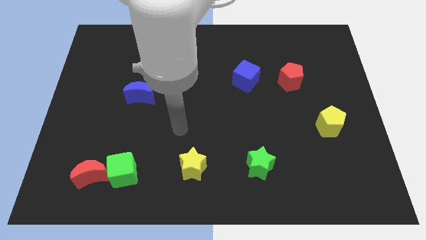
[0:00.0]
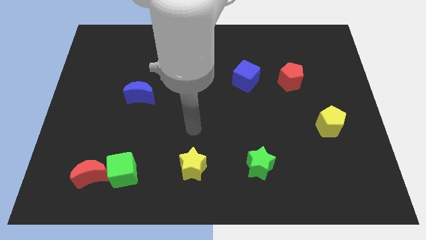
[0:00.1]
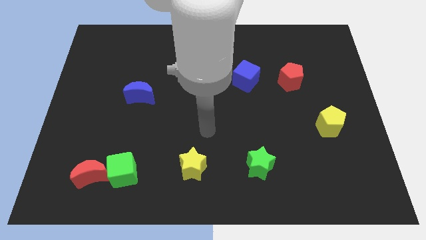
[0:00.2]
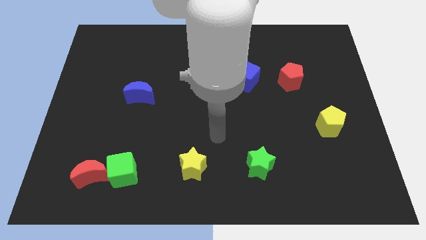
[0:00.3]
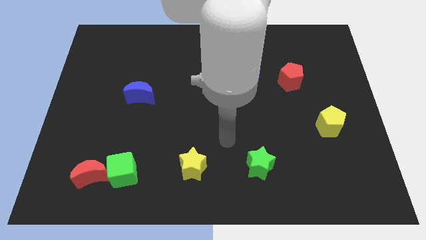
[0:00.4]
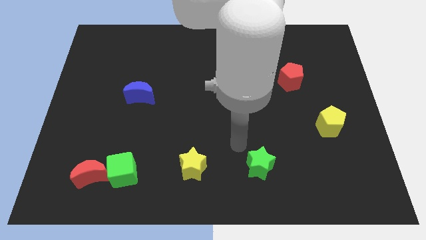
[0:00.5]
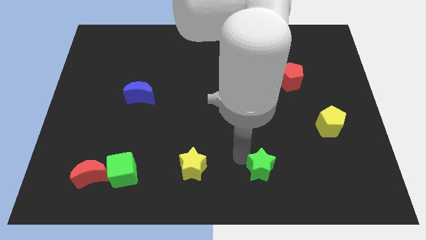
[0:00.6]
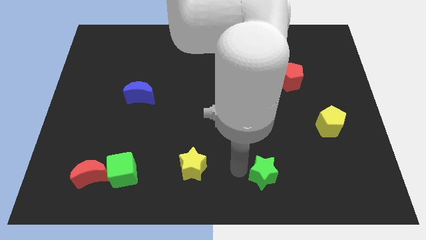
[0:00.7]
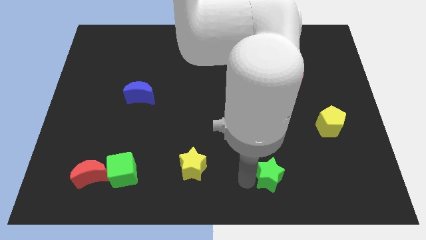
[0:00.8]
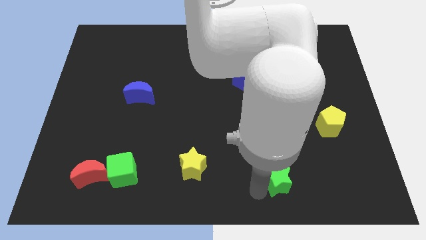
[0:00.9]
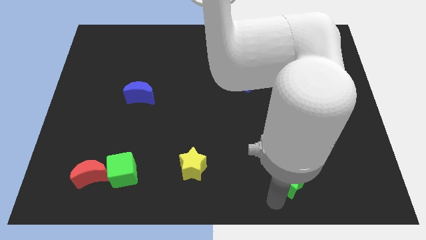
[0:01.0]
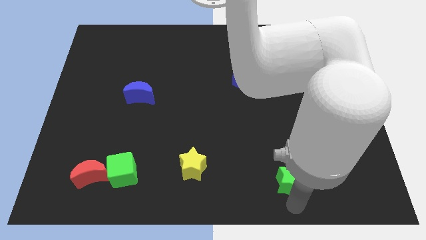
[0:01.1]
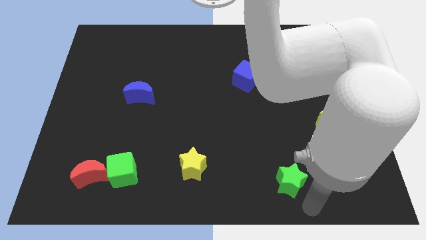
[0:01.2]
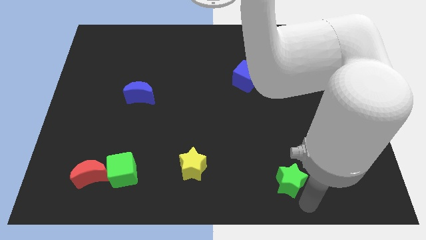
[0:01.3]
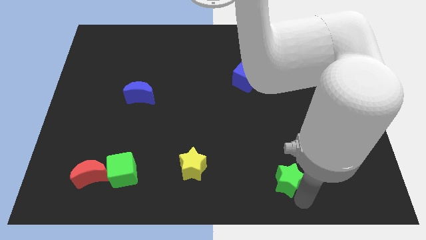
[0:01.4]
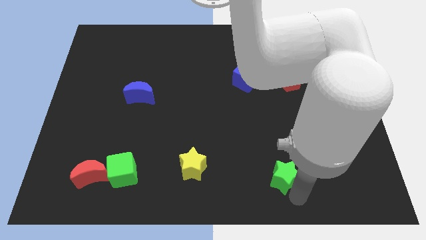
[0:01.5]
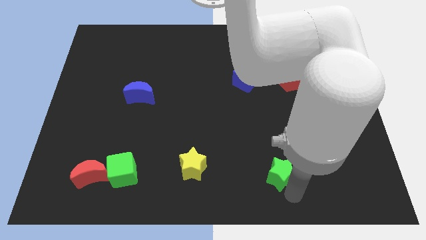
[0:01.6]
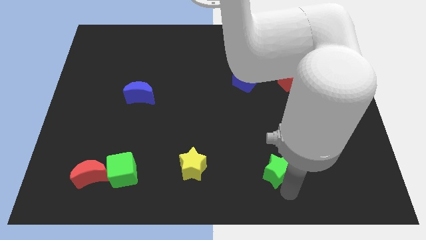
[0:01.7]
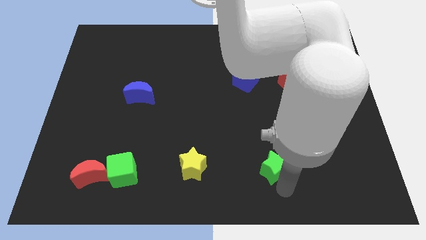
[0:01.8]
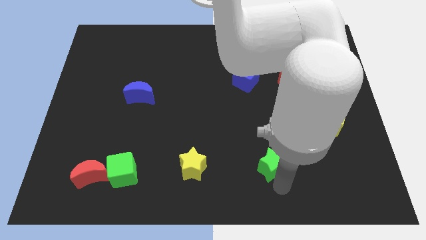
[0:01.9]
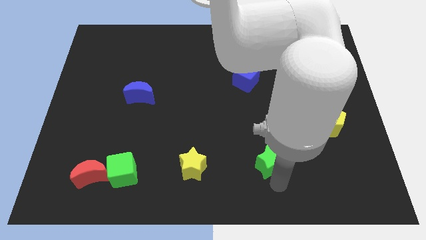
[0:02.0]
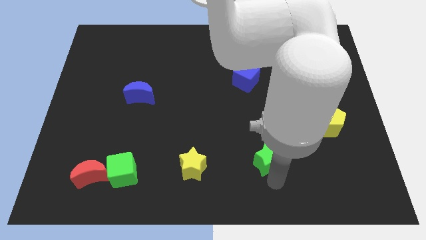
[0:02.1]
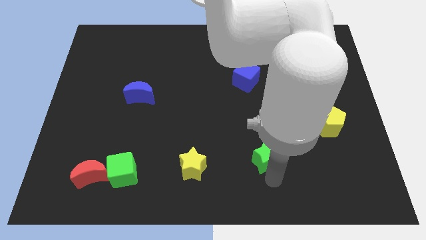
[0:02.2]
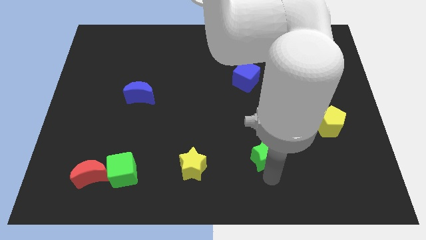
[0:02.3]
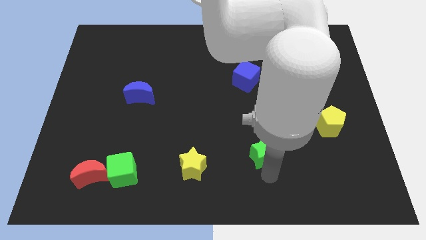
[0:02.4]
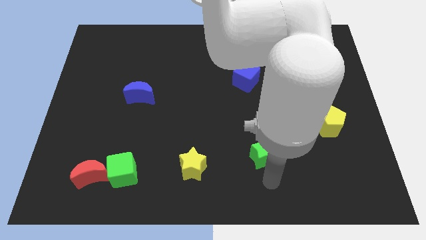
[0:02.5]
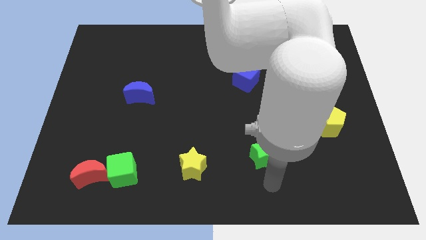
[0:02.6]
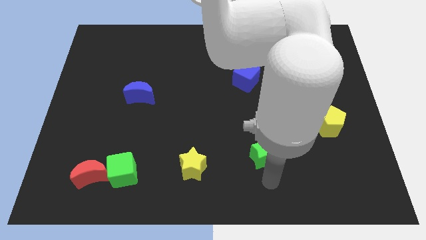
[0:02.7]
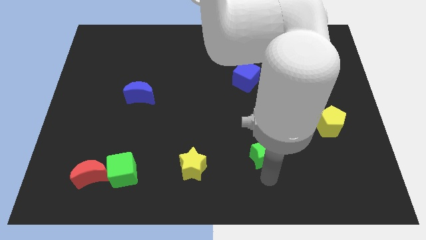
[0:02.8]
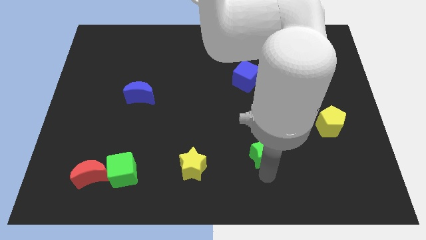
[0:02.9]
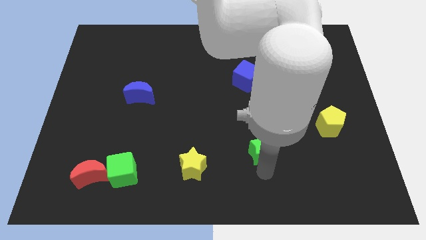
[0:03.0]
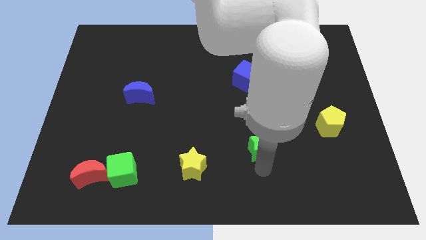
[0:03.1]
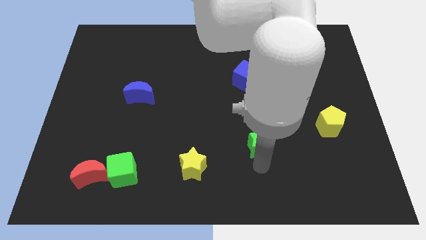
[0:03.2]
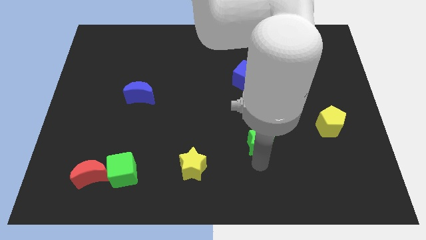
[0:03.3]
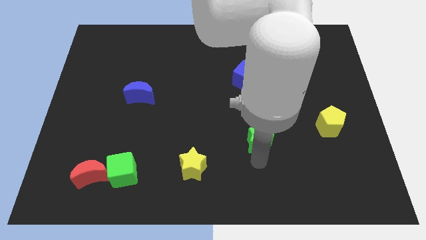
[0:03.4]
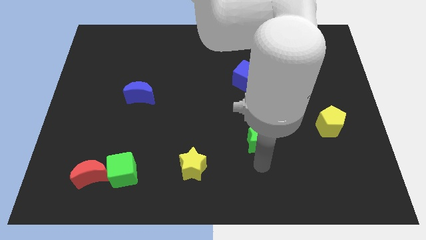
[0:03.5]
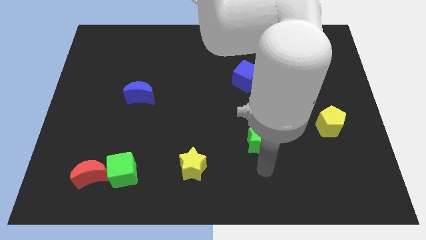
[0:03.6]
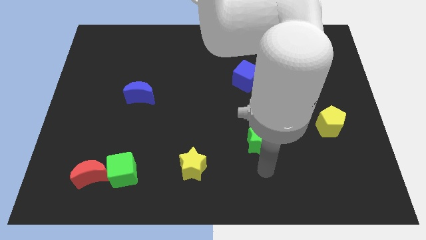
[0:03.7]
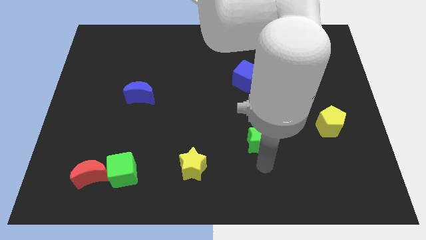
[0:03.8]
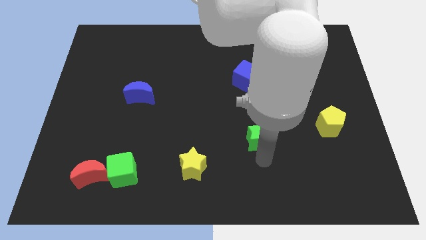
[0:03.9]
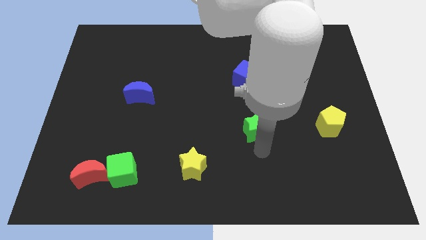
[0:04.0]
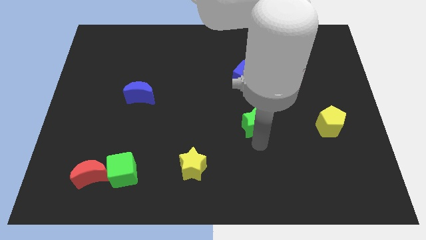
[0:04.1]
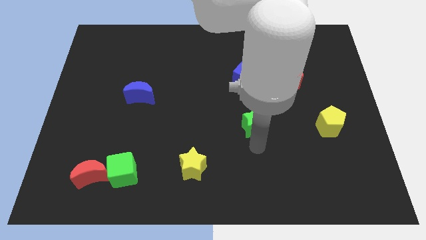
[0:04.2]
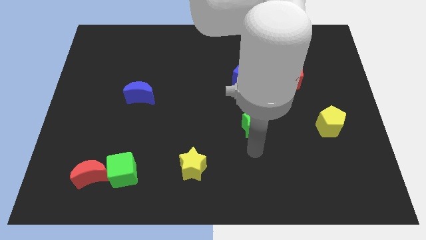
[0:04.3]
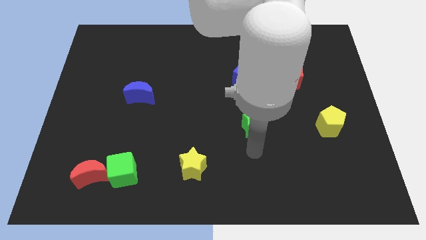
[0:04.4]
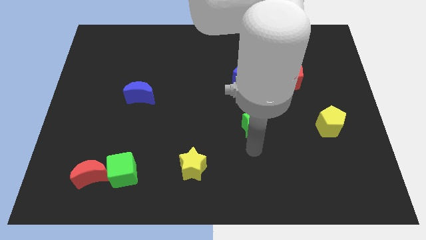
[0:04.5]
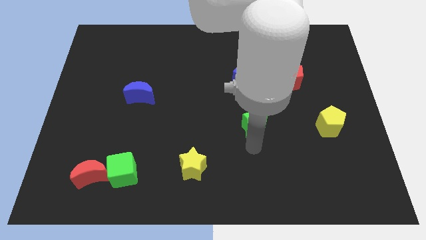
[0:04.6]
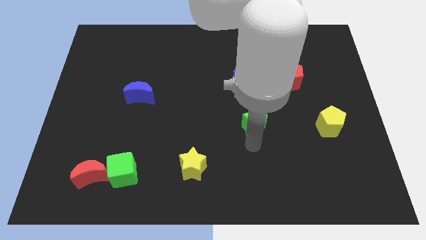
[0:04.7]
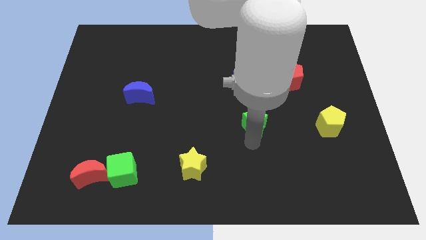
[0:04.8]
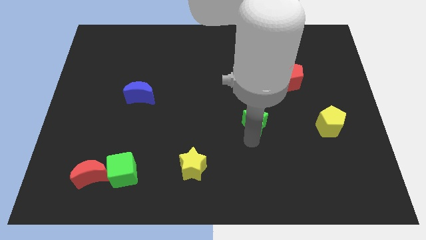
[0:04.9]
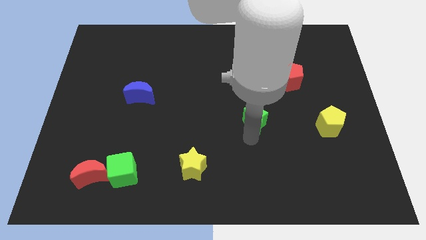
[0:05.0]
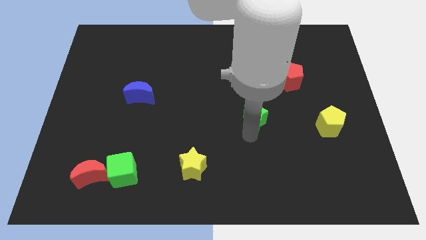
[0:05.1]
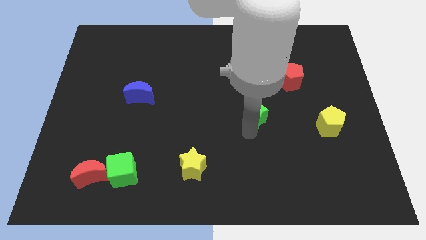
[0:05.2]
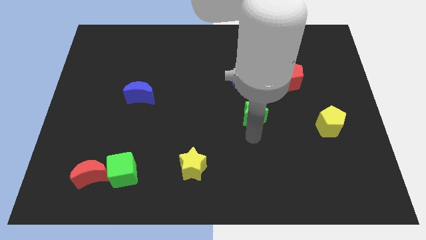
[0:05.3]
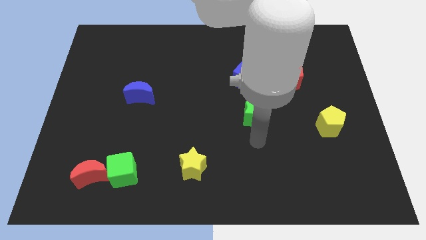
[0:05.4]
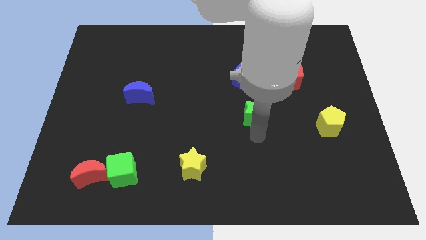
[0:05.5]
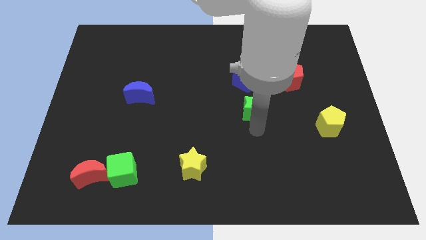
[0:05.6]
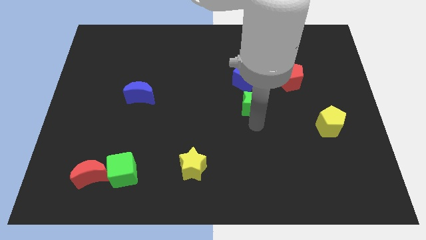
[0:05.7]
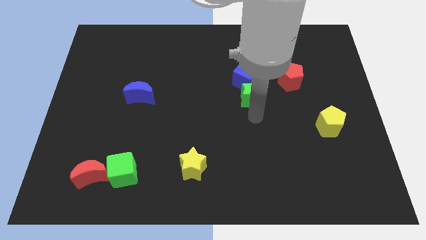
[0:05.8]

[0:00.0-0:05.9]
put the green star to the blue cube

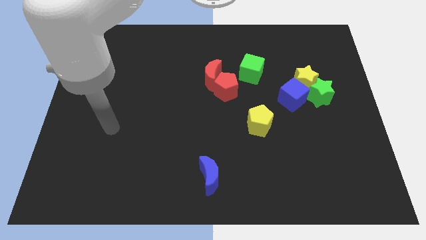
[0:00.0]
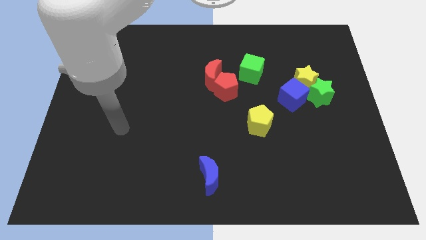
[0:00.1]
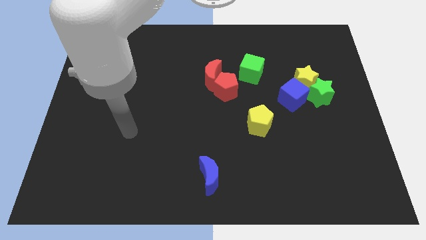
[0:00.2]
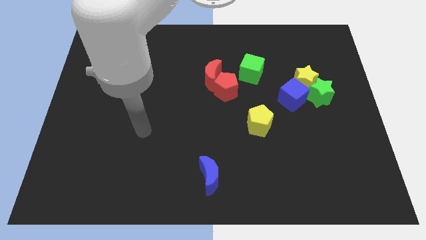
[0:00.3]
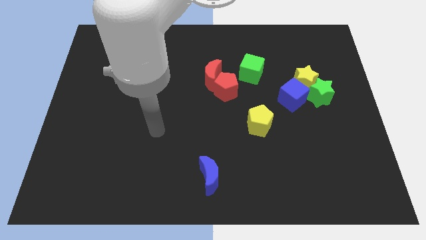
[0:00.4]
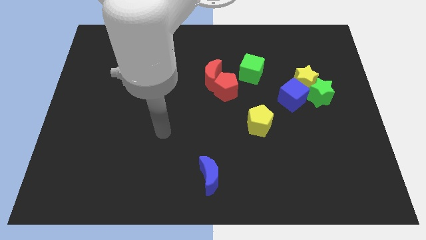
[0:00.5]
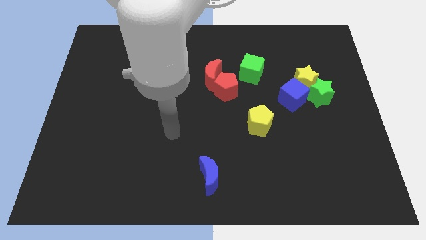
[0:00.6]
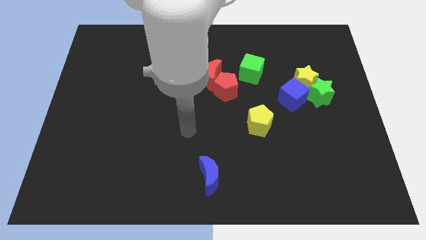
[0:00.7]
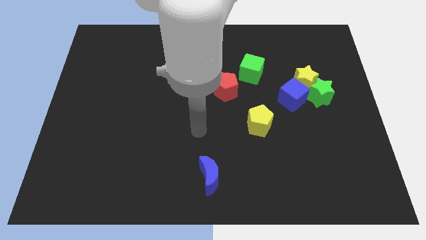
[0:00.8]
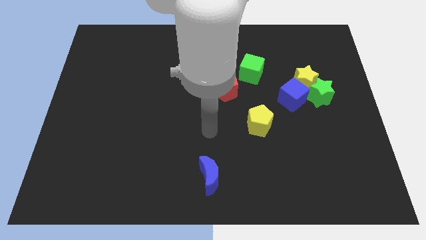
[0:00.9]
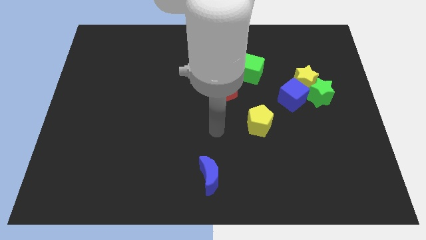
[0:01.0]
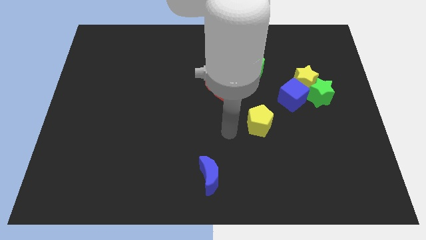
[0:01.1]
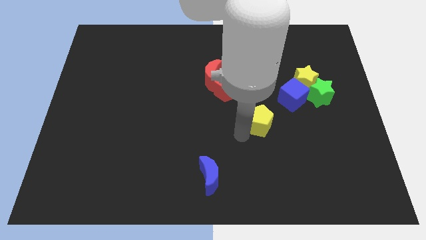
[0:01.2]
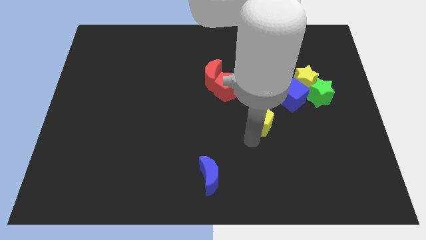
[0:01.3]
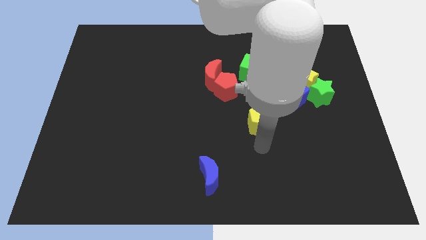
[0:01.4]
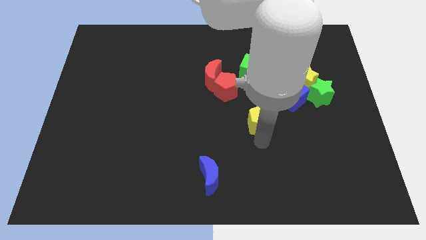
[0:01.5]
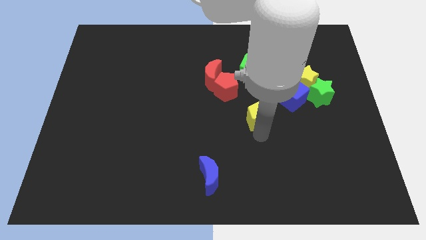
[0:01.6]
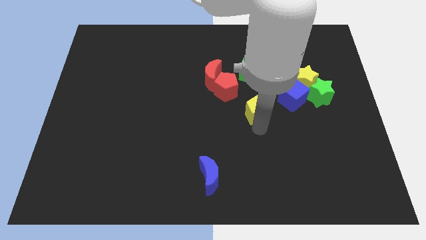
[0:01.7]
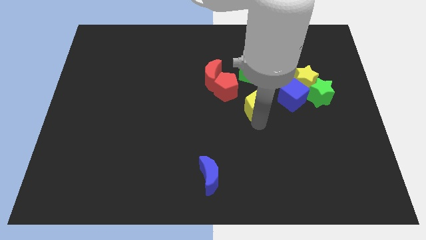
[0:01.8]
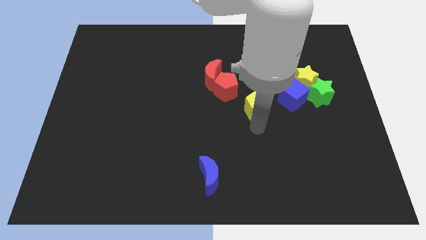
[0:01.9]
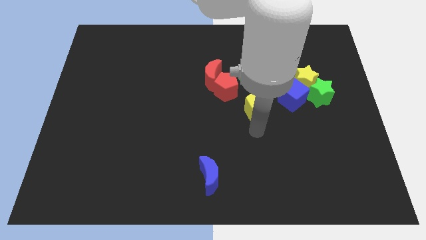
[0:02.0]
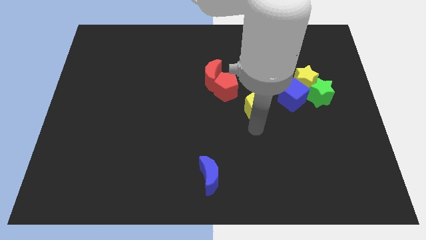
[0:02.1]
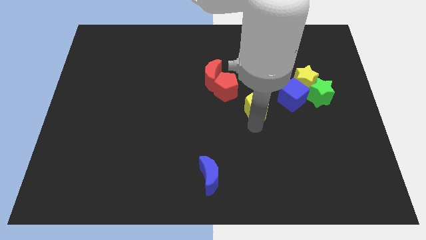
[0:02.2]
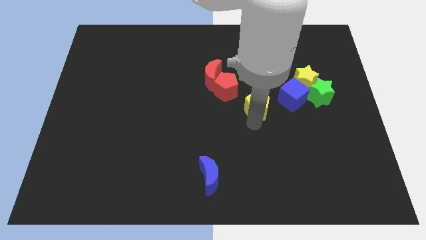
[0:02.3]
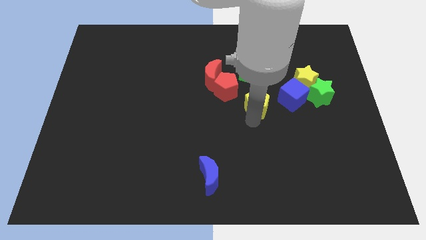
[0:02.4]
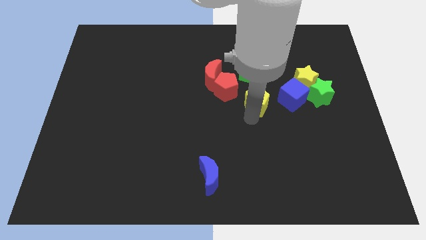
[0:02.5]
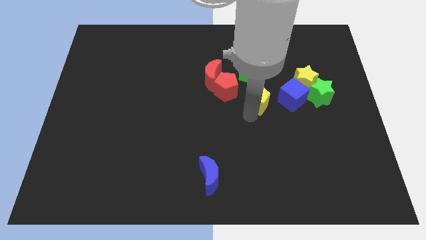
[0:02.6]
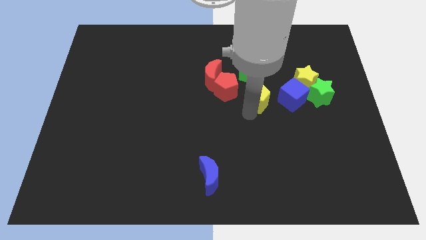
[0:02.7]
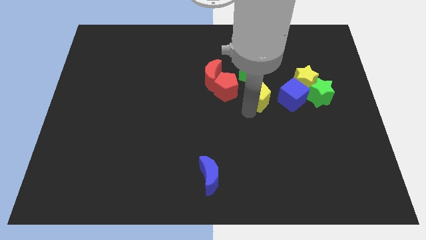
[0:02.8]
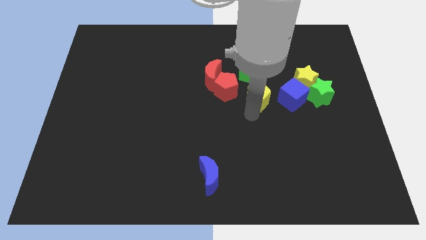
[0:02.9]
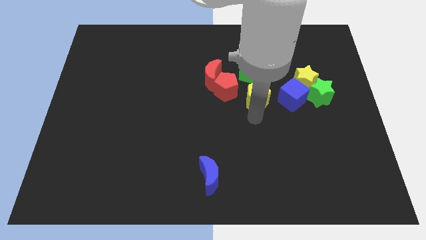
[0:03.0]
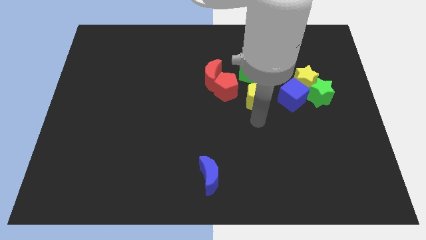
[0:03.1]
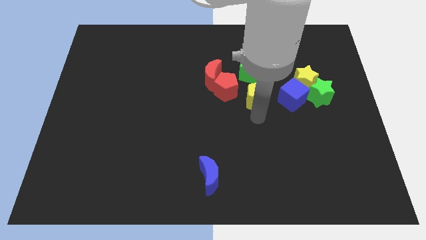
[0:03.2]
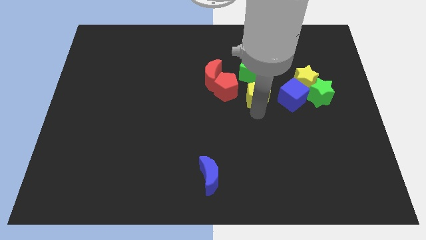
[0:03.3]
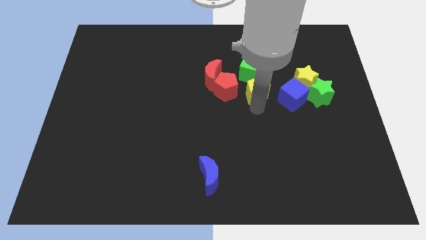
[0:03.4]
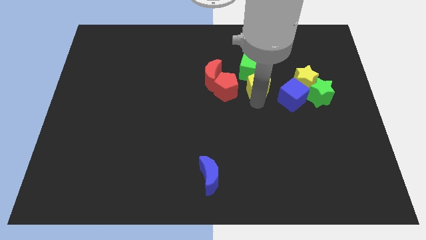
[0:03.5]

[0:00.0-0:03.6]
push the yellow pentagon towards the green cube
